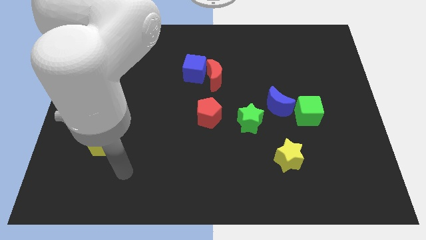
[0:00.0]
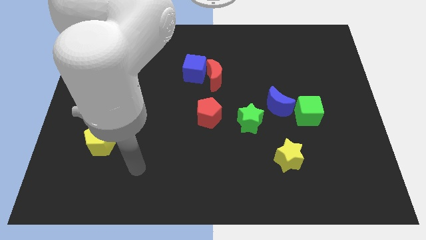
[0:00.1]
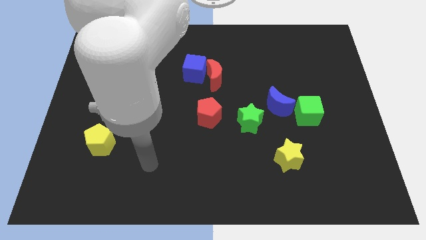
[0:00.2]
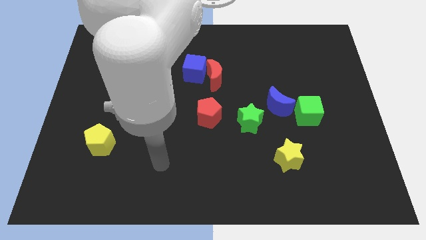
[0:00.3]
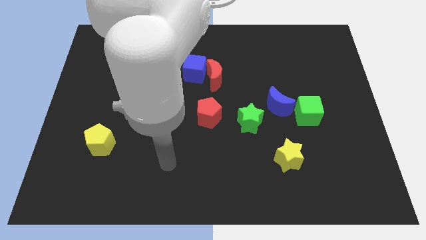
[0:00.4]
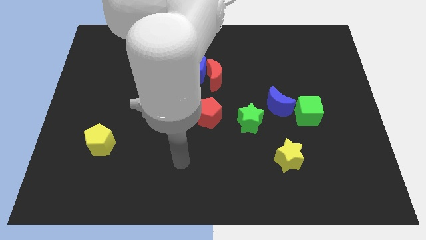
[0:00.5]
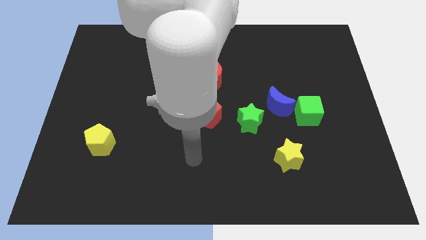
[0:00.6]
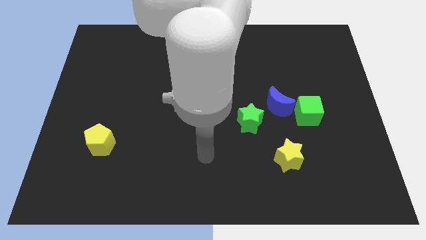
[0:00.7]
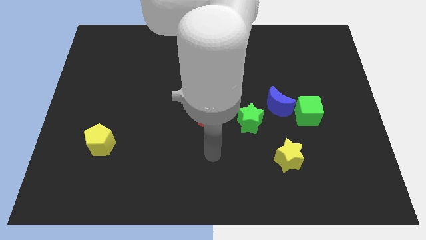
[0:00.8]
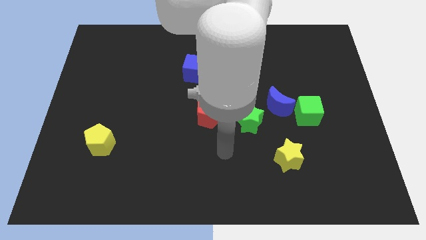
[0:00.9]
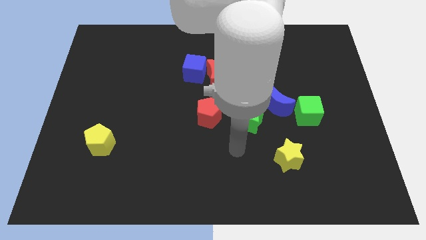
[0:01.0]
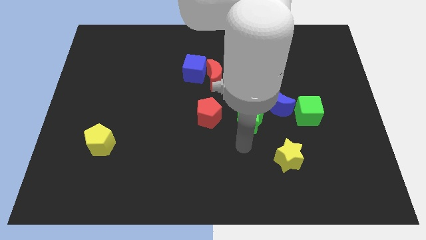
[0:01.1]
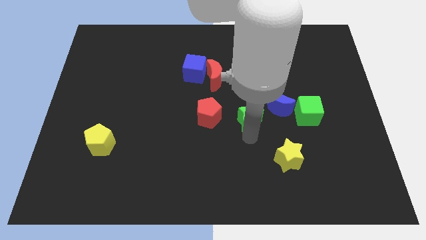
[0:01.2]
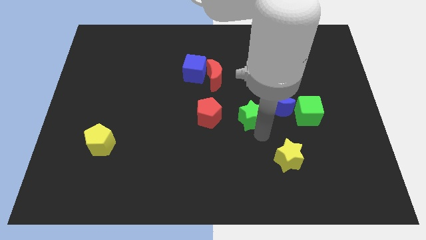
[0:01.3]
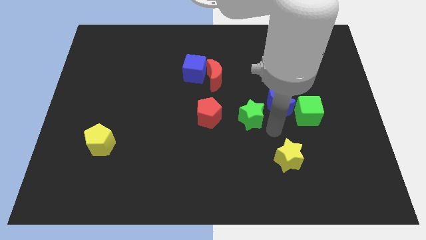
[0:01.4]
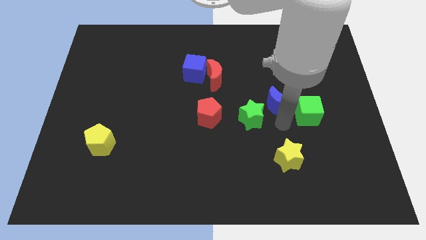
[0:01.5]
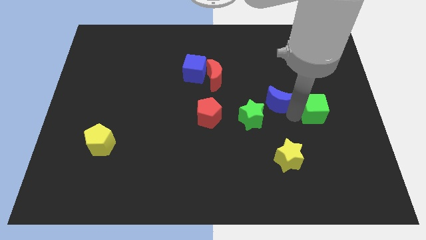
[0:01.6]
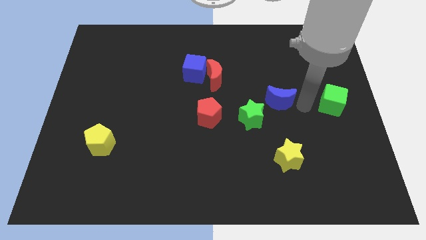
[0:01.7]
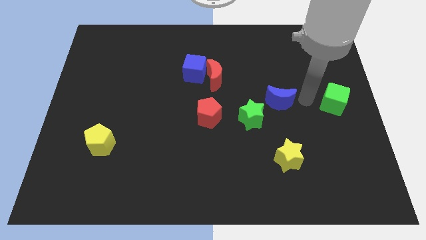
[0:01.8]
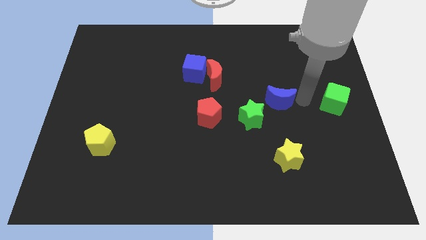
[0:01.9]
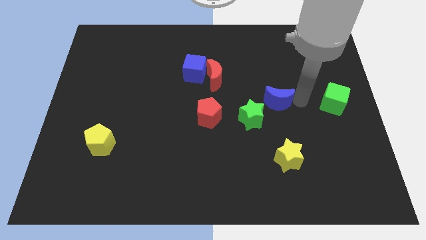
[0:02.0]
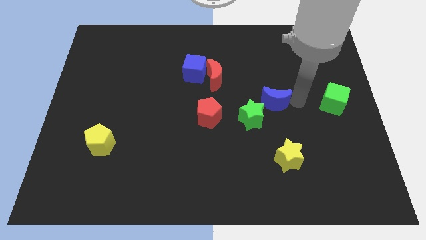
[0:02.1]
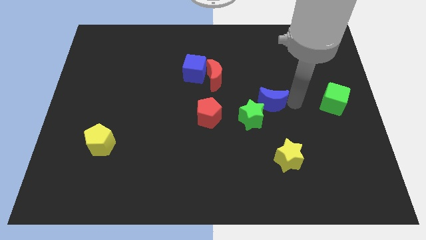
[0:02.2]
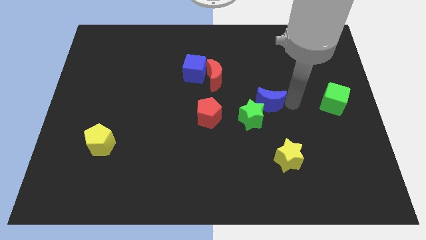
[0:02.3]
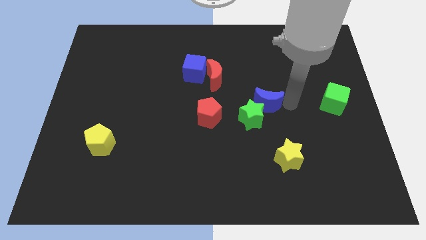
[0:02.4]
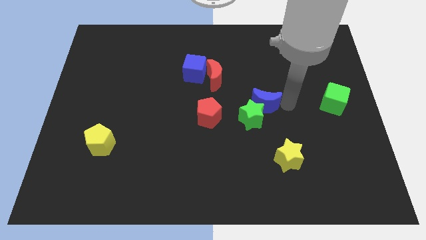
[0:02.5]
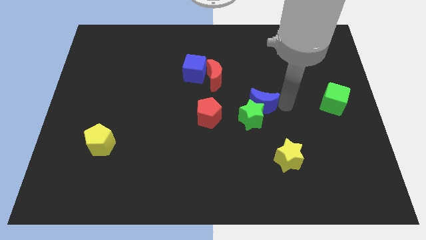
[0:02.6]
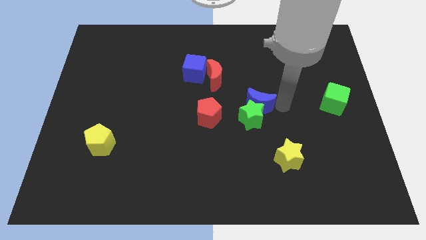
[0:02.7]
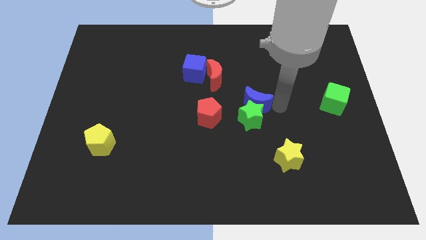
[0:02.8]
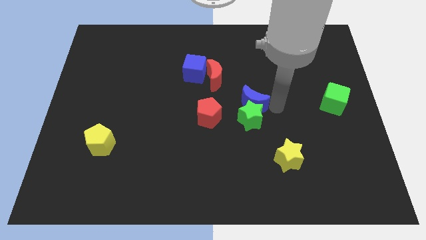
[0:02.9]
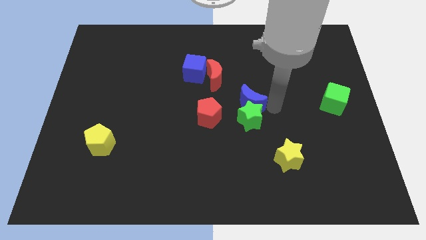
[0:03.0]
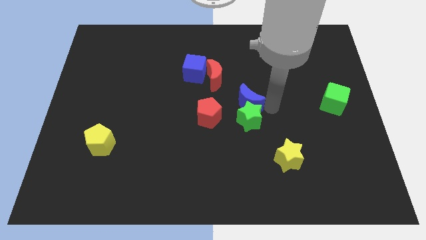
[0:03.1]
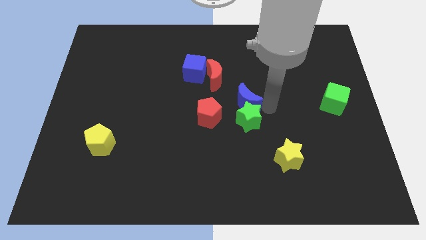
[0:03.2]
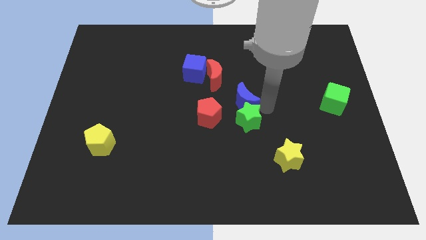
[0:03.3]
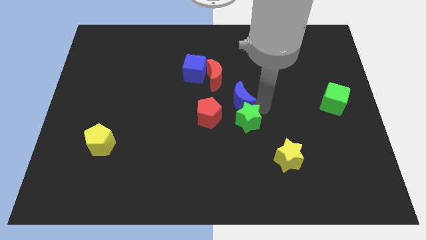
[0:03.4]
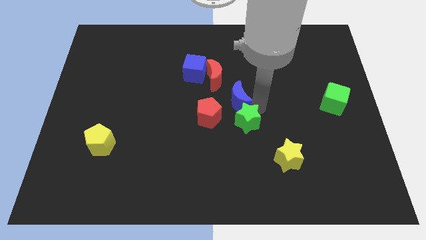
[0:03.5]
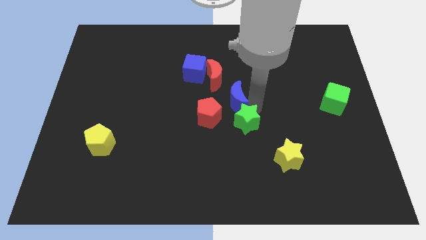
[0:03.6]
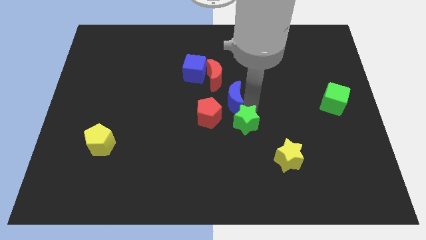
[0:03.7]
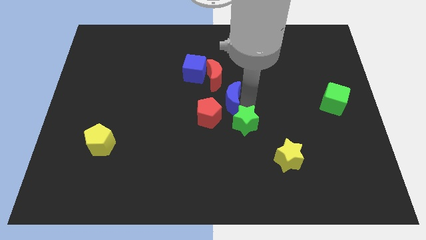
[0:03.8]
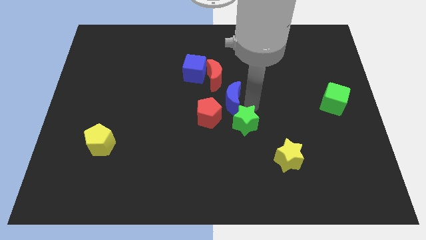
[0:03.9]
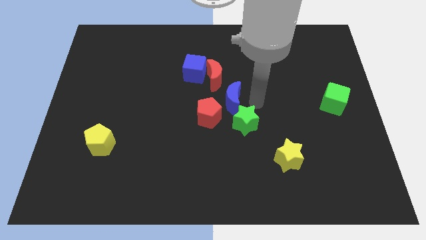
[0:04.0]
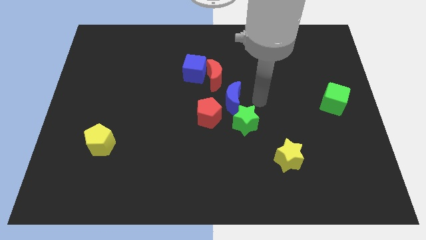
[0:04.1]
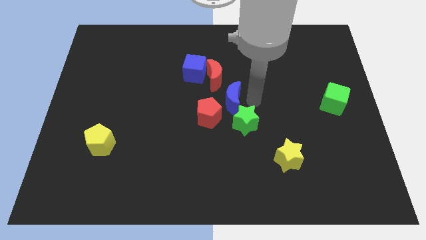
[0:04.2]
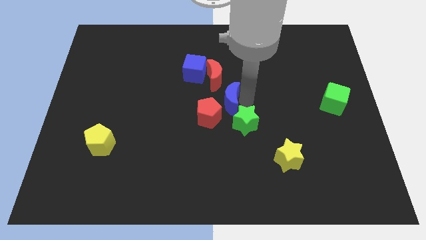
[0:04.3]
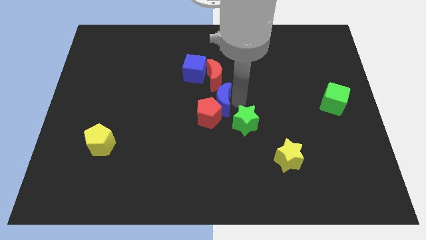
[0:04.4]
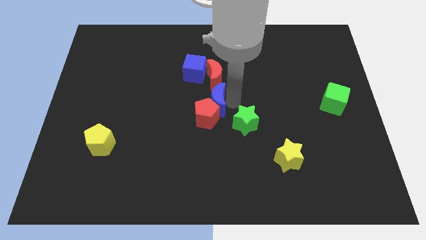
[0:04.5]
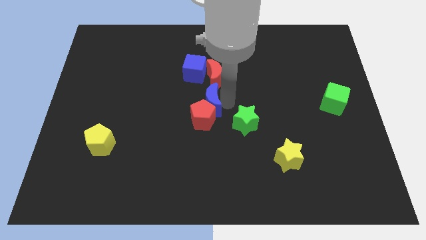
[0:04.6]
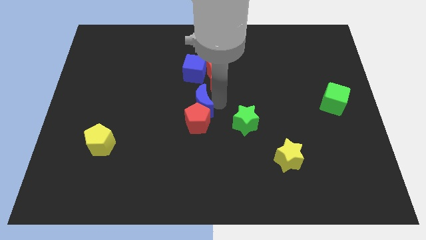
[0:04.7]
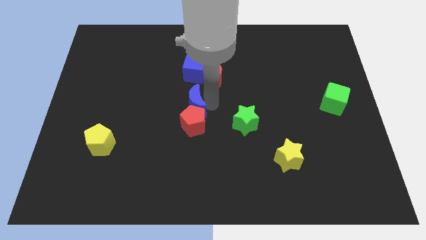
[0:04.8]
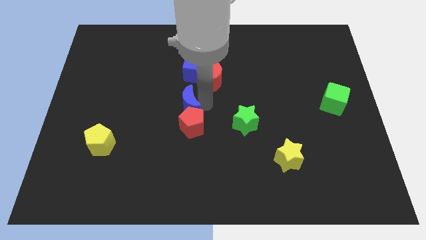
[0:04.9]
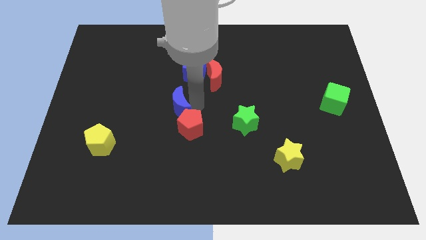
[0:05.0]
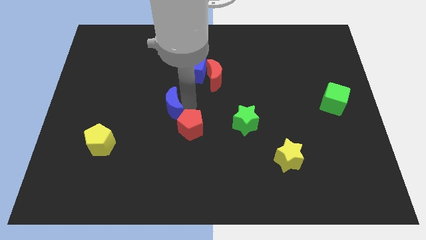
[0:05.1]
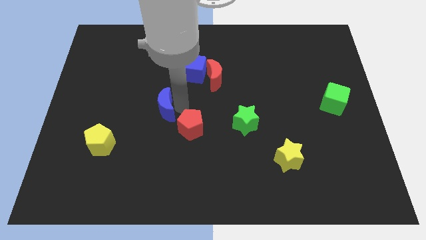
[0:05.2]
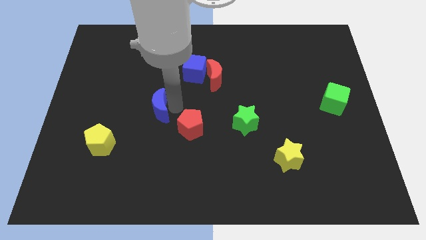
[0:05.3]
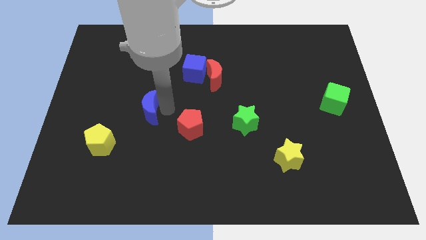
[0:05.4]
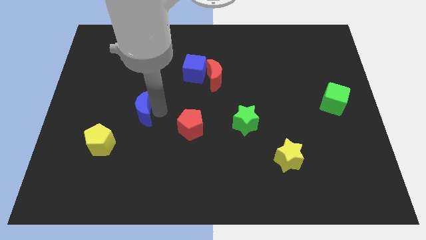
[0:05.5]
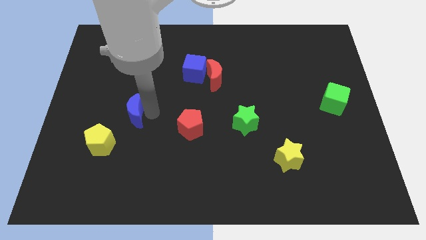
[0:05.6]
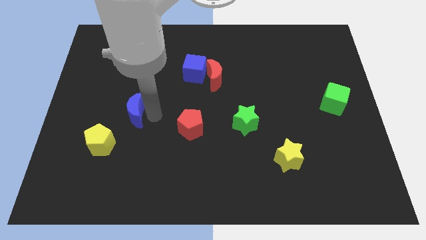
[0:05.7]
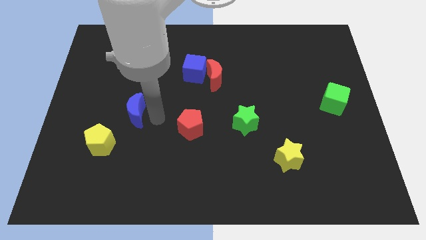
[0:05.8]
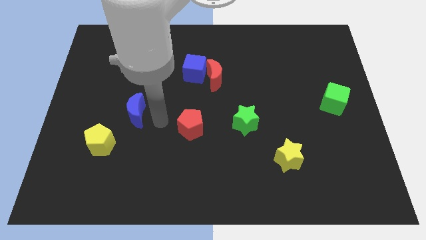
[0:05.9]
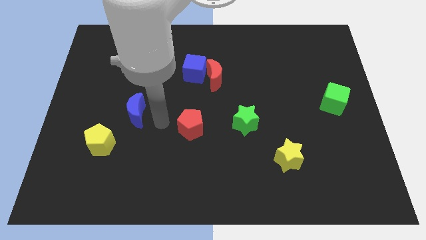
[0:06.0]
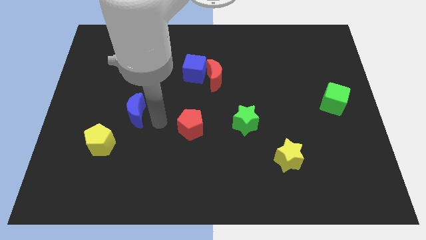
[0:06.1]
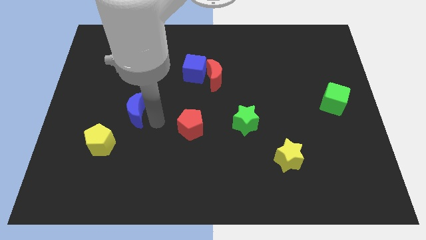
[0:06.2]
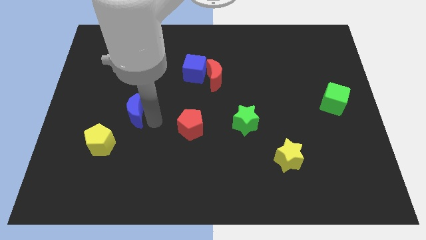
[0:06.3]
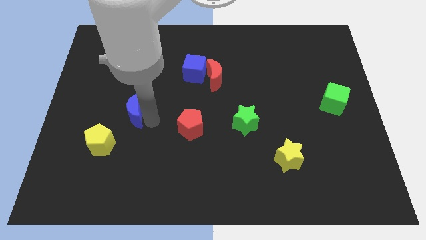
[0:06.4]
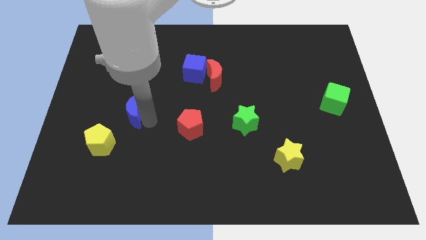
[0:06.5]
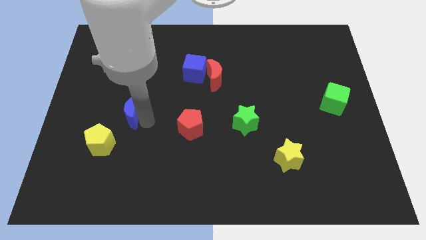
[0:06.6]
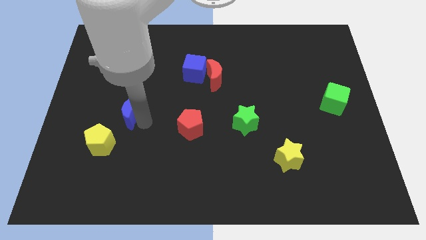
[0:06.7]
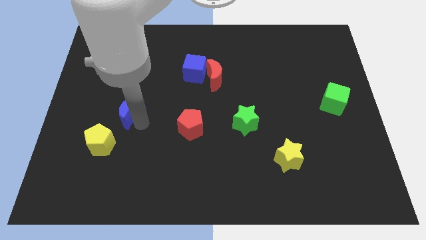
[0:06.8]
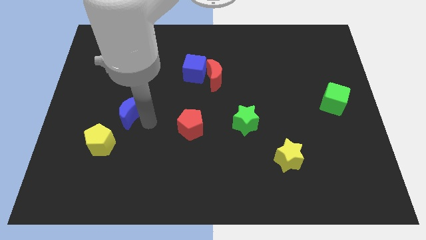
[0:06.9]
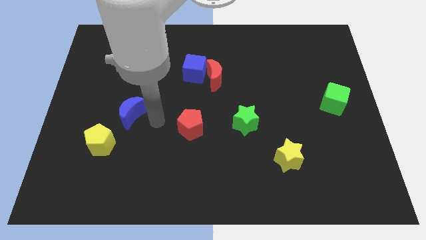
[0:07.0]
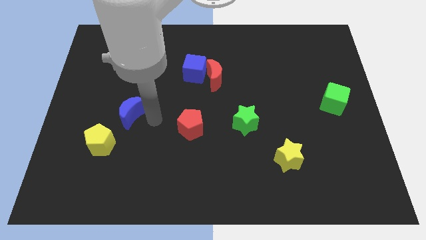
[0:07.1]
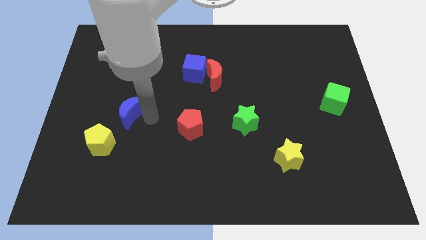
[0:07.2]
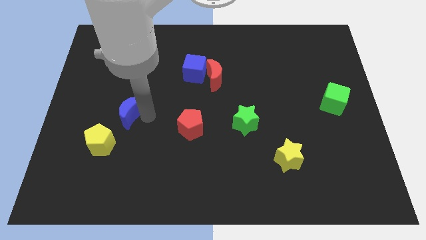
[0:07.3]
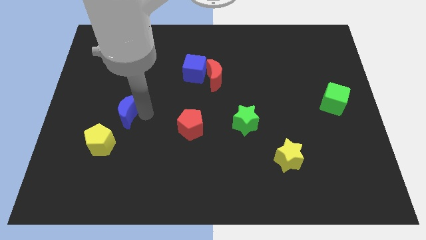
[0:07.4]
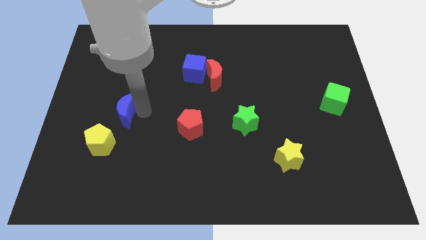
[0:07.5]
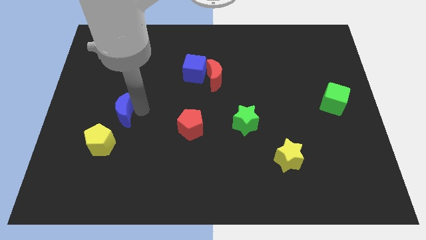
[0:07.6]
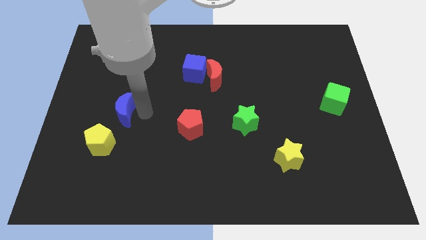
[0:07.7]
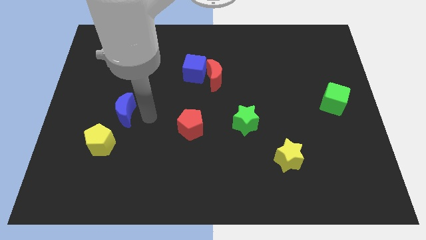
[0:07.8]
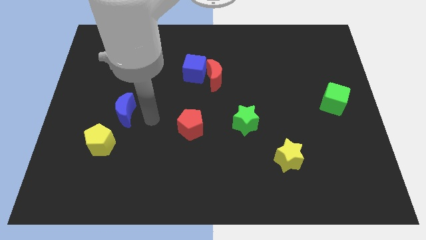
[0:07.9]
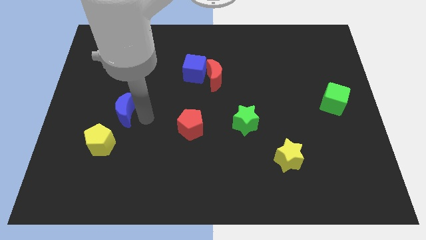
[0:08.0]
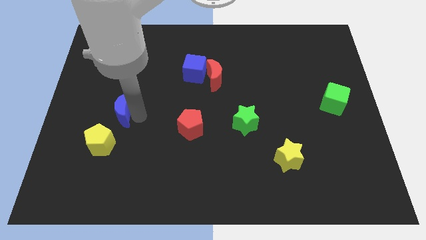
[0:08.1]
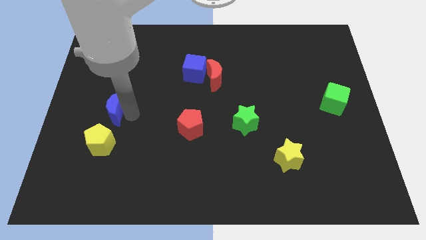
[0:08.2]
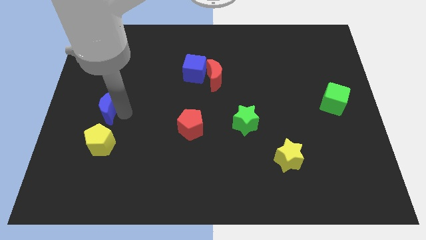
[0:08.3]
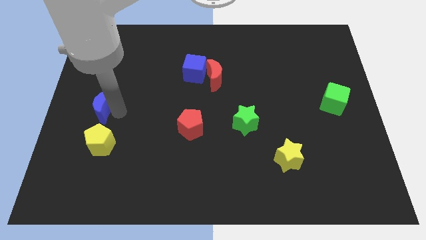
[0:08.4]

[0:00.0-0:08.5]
move the blue moon to the center left
